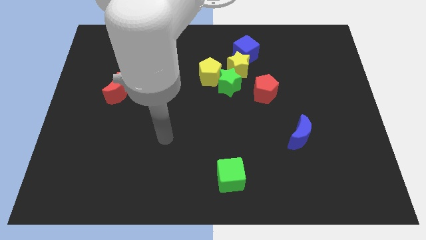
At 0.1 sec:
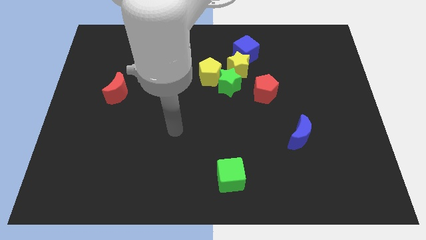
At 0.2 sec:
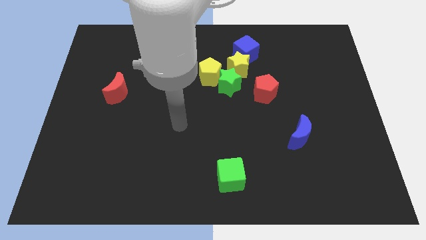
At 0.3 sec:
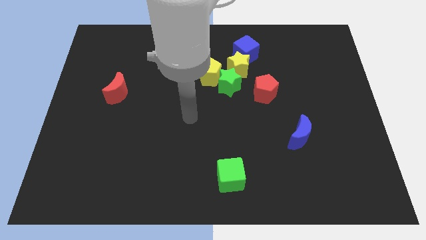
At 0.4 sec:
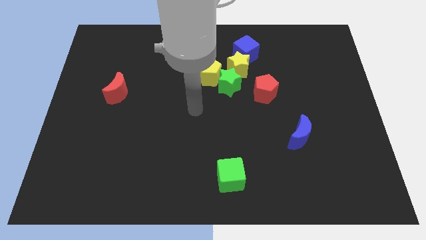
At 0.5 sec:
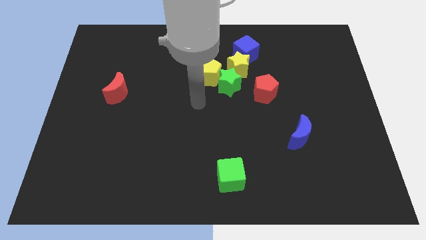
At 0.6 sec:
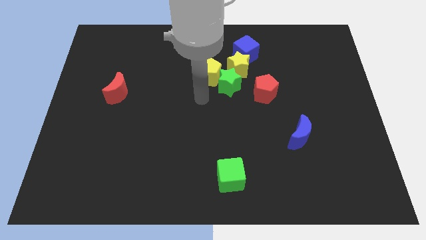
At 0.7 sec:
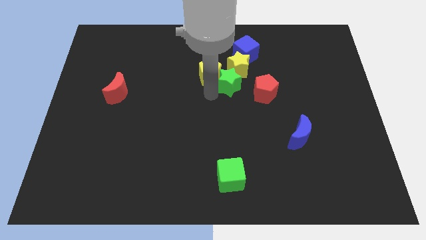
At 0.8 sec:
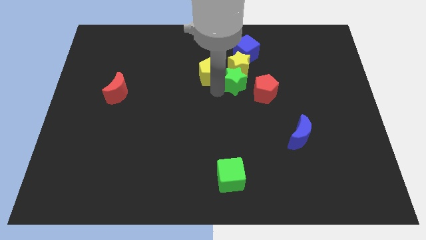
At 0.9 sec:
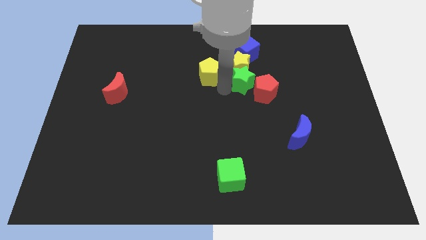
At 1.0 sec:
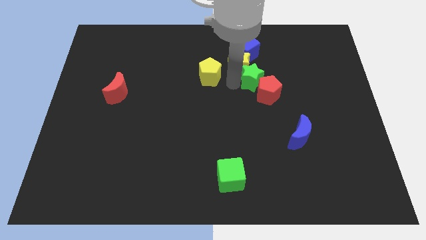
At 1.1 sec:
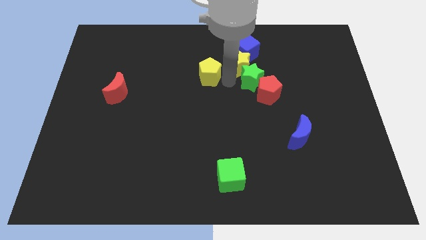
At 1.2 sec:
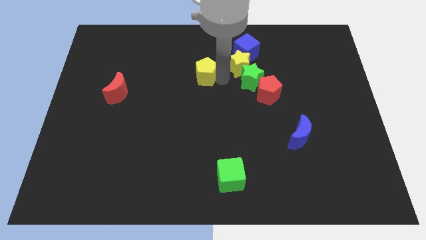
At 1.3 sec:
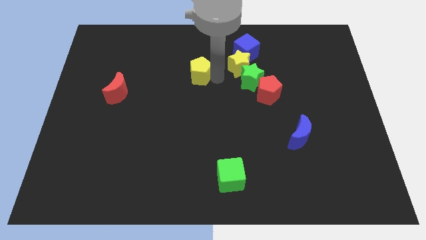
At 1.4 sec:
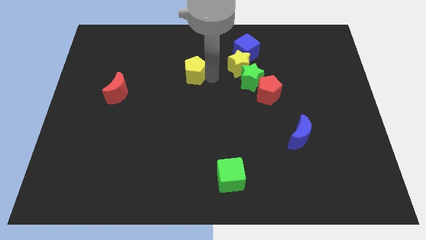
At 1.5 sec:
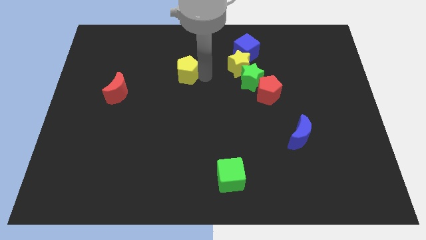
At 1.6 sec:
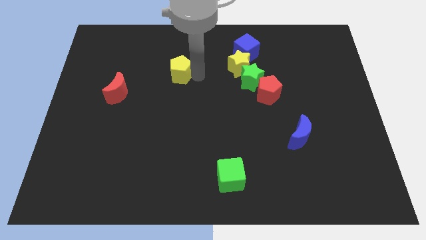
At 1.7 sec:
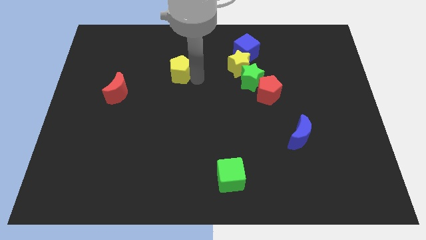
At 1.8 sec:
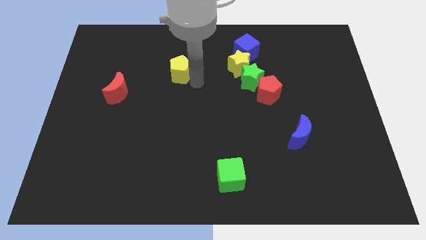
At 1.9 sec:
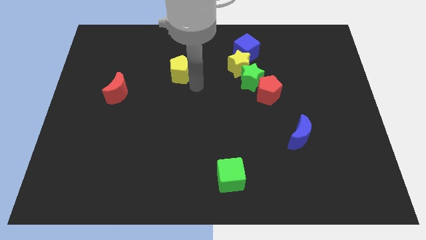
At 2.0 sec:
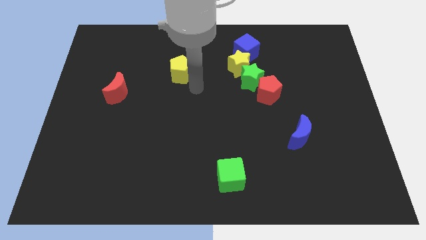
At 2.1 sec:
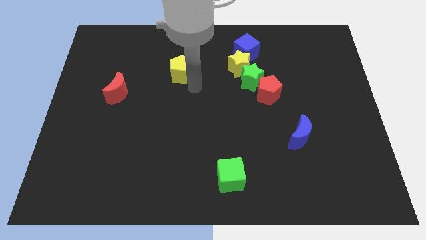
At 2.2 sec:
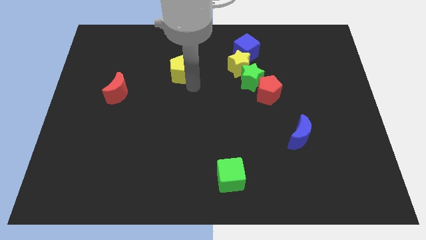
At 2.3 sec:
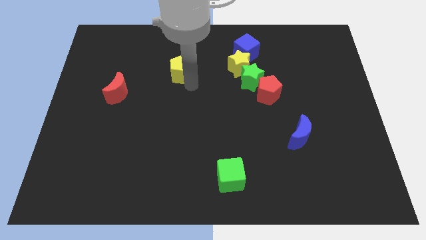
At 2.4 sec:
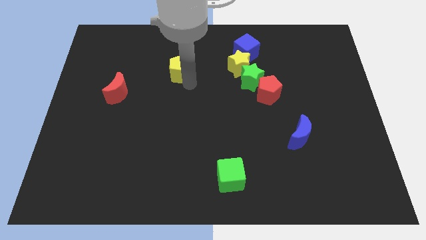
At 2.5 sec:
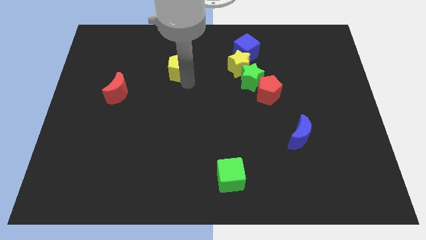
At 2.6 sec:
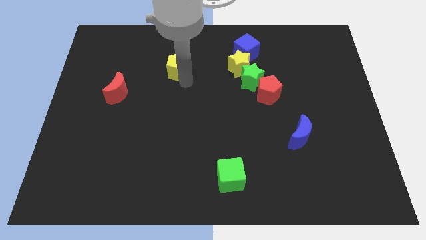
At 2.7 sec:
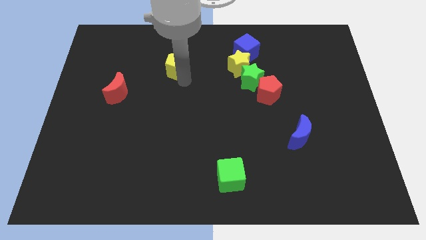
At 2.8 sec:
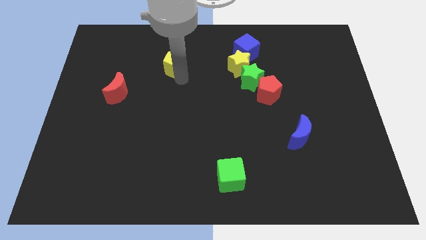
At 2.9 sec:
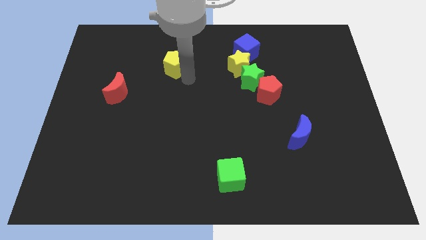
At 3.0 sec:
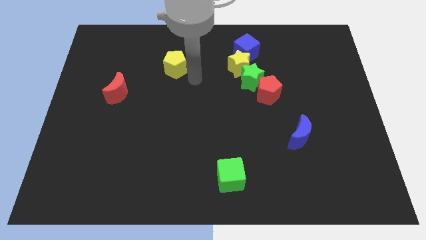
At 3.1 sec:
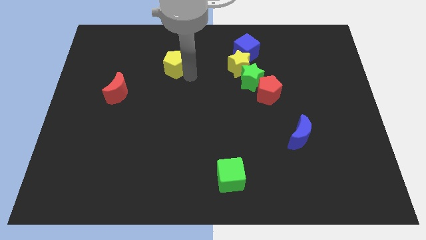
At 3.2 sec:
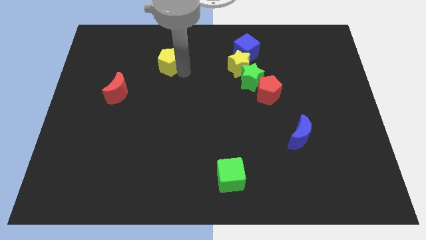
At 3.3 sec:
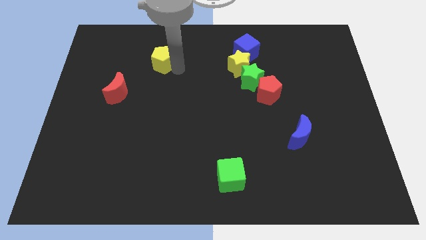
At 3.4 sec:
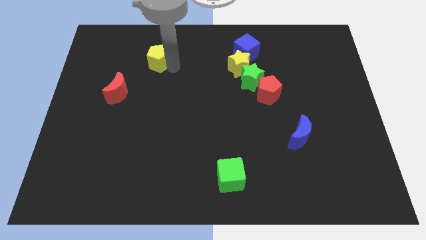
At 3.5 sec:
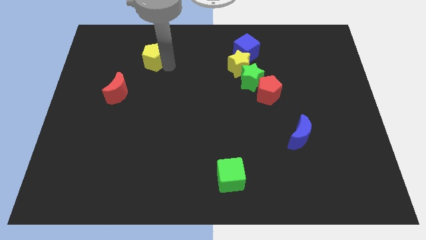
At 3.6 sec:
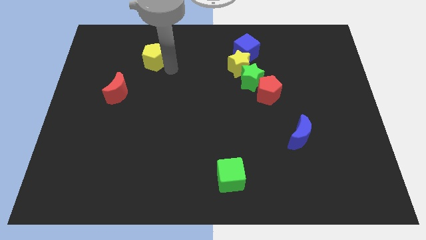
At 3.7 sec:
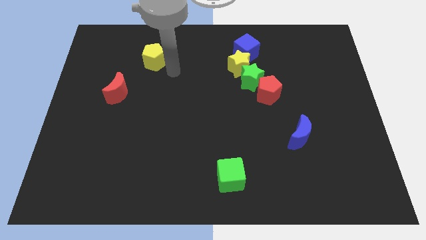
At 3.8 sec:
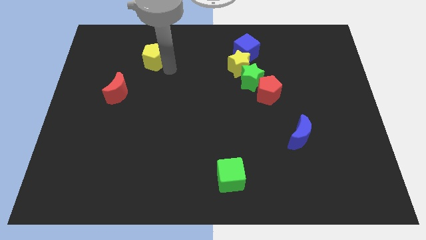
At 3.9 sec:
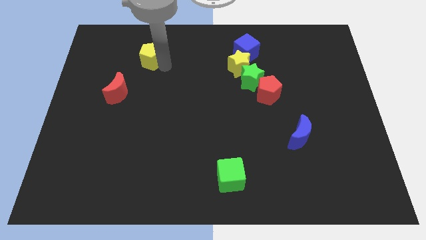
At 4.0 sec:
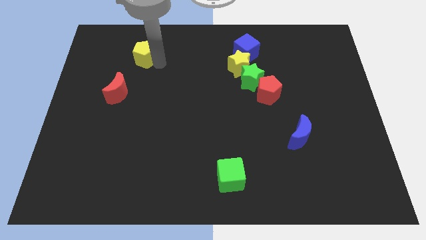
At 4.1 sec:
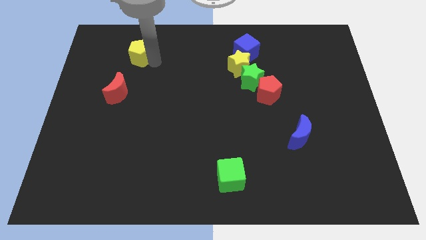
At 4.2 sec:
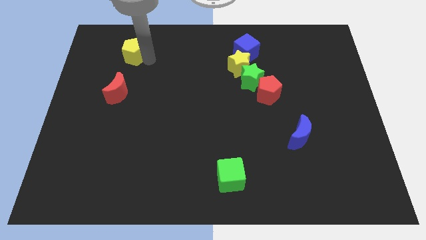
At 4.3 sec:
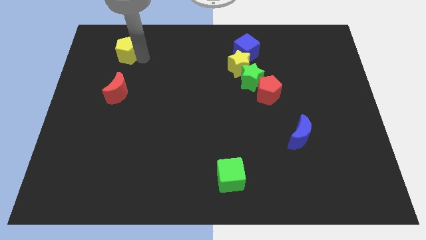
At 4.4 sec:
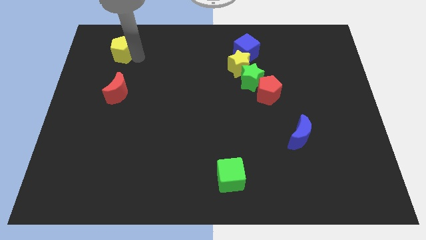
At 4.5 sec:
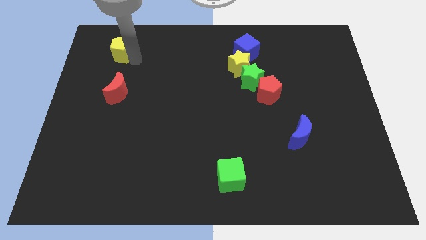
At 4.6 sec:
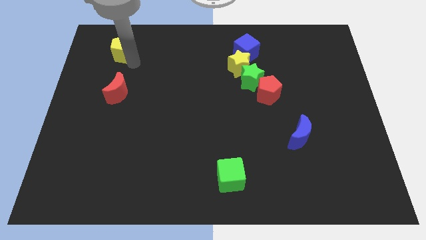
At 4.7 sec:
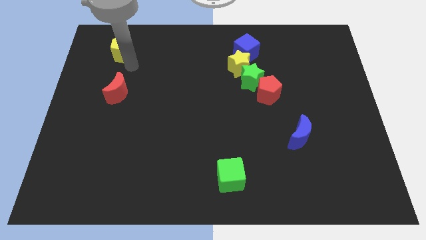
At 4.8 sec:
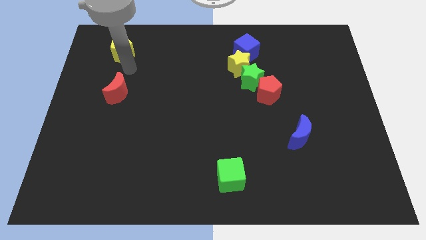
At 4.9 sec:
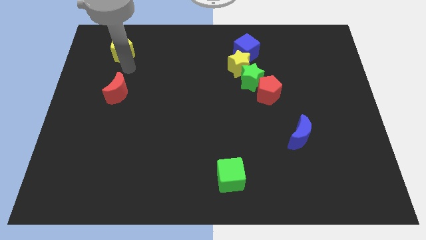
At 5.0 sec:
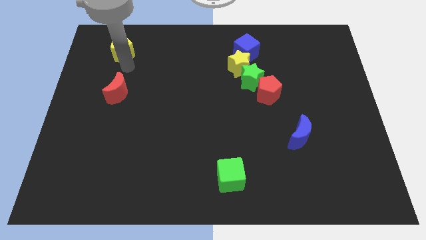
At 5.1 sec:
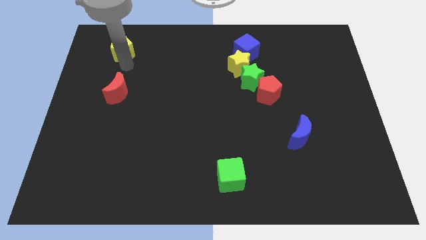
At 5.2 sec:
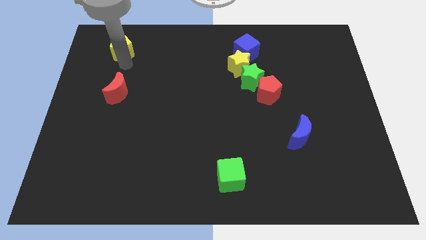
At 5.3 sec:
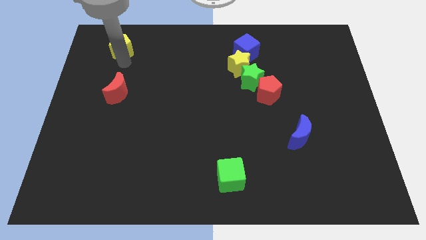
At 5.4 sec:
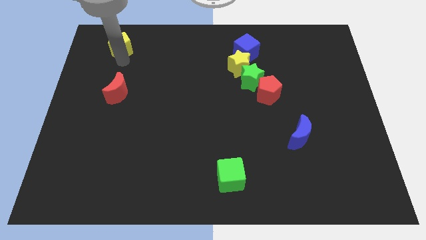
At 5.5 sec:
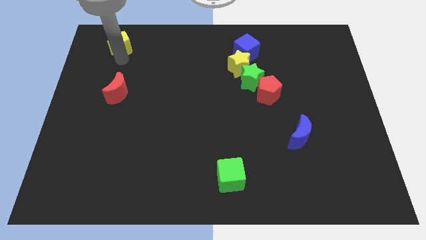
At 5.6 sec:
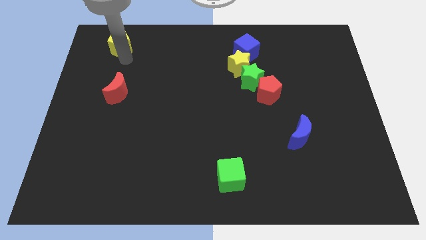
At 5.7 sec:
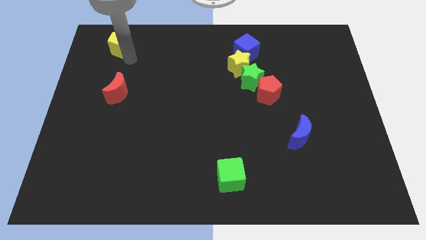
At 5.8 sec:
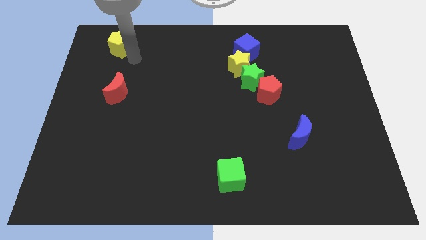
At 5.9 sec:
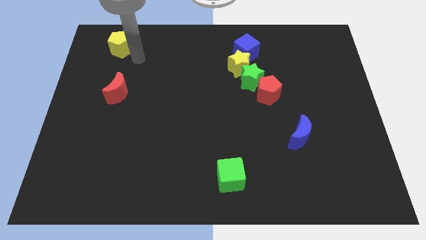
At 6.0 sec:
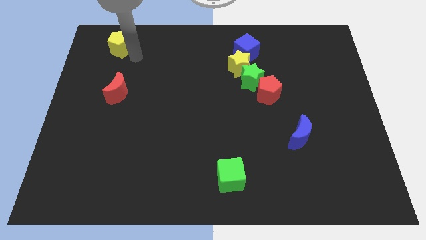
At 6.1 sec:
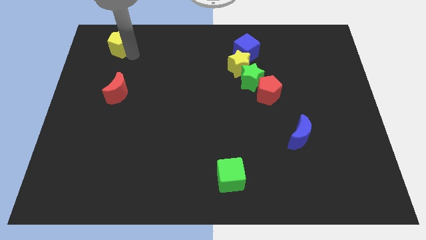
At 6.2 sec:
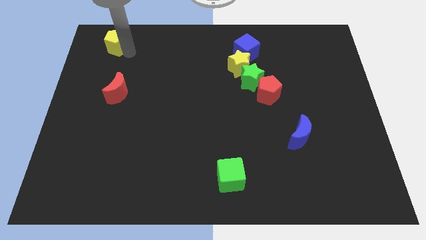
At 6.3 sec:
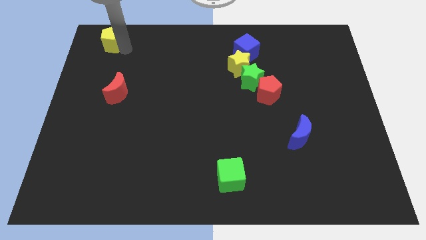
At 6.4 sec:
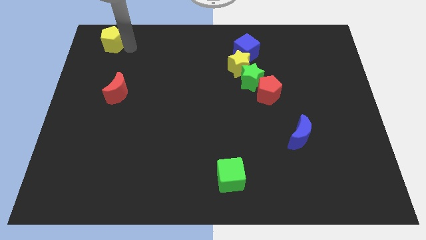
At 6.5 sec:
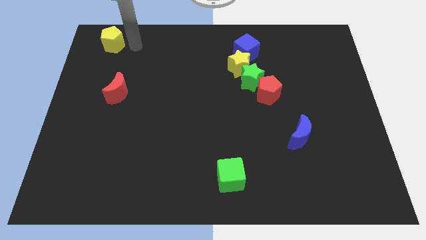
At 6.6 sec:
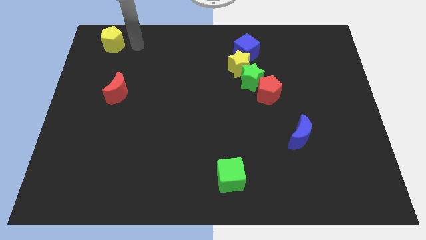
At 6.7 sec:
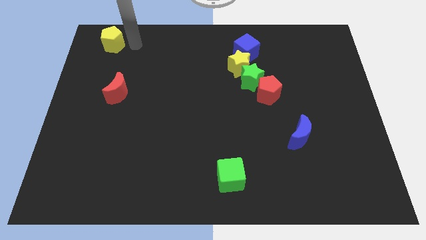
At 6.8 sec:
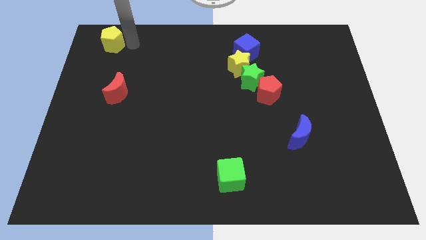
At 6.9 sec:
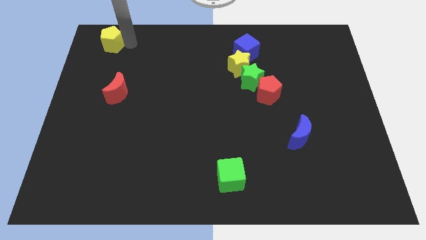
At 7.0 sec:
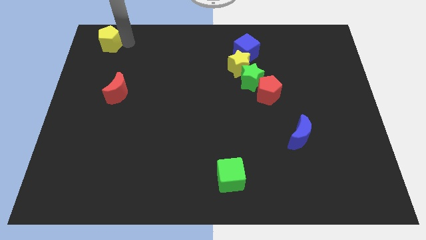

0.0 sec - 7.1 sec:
push the yellow pentagon to the top left corner

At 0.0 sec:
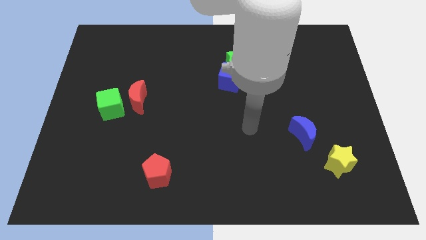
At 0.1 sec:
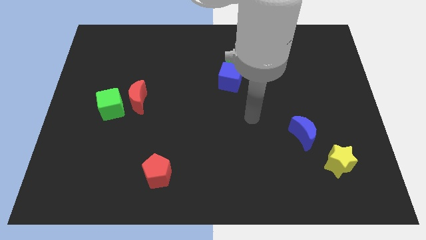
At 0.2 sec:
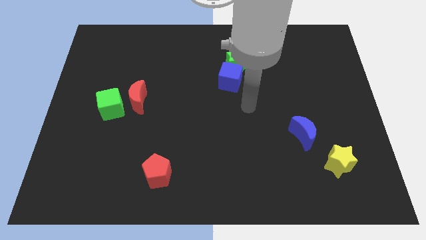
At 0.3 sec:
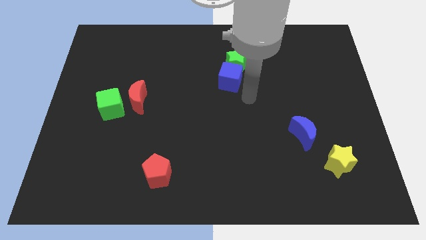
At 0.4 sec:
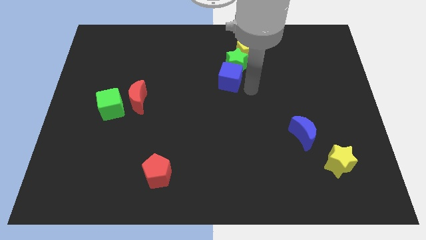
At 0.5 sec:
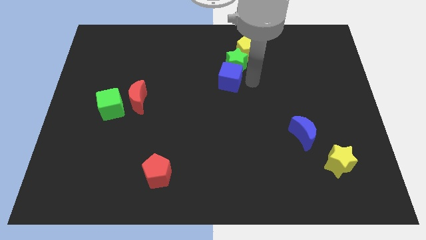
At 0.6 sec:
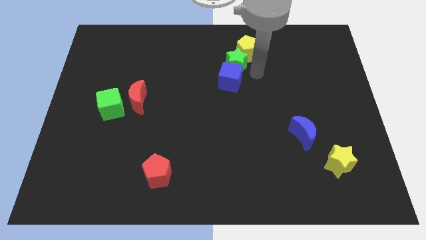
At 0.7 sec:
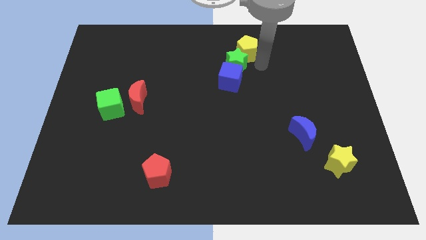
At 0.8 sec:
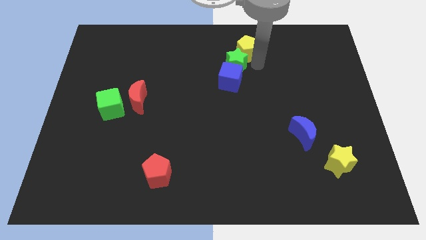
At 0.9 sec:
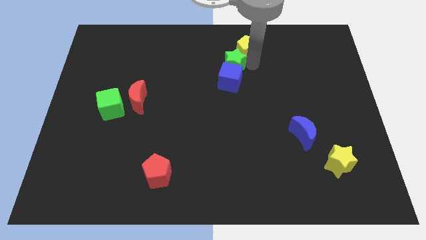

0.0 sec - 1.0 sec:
slide the green star to the center
